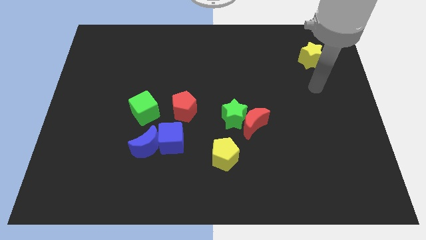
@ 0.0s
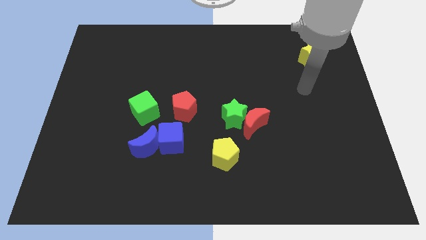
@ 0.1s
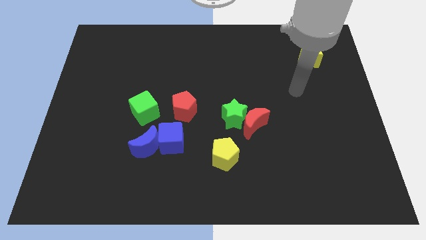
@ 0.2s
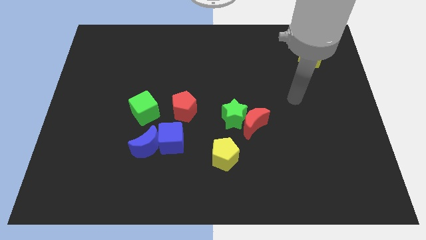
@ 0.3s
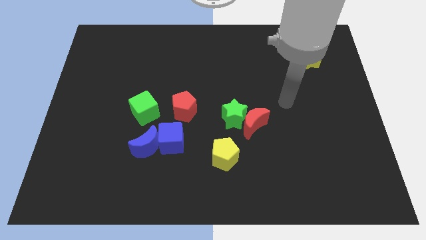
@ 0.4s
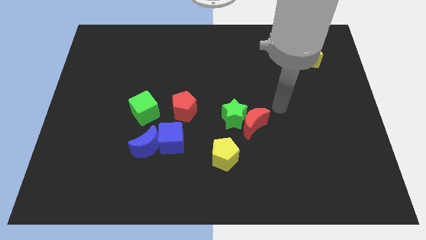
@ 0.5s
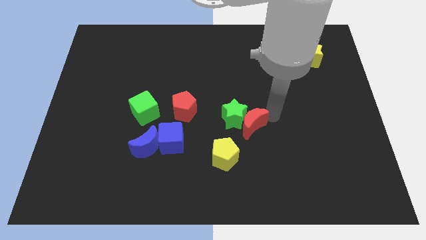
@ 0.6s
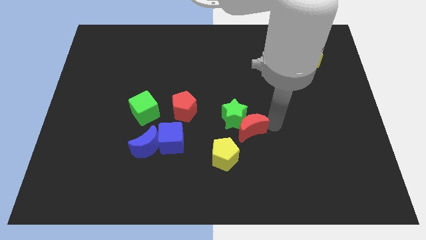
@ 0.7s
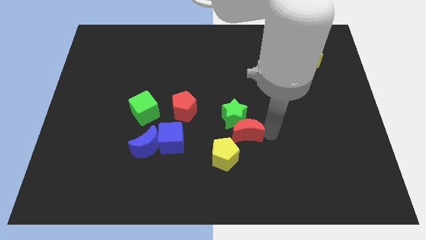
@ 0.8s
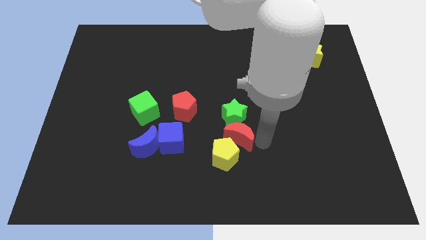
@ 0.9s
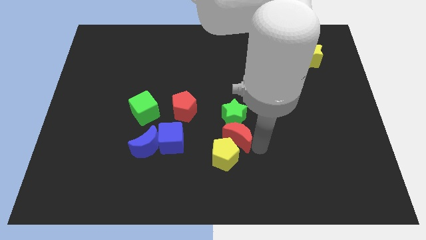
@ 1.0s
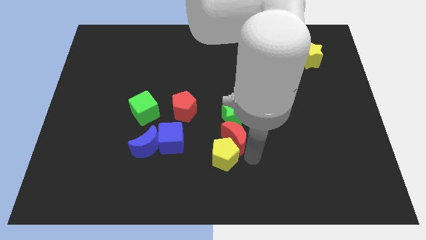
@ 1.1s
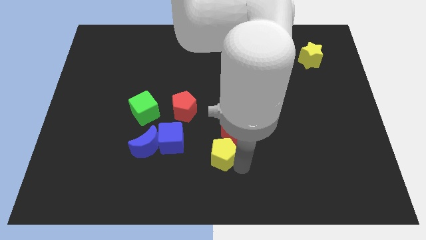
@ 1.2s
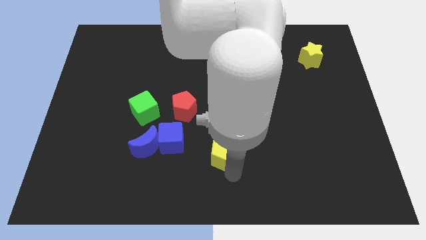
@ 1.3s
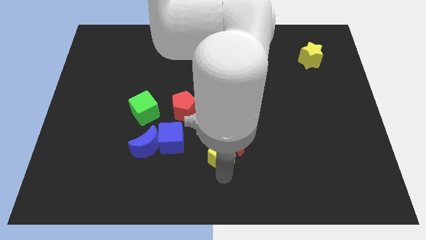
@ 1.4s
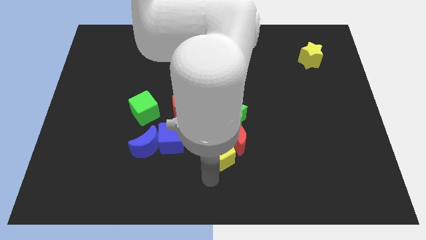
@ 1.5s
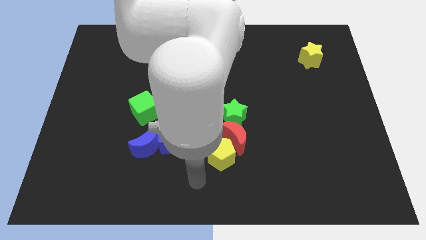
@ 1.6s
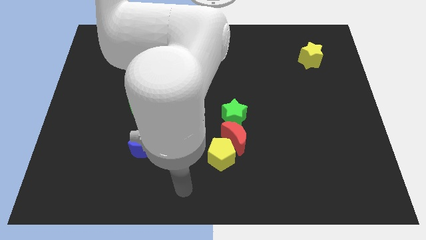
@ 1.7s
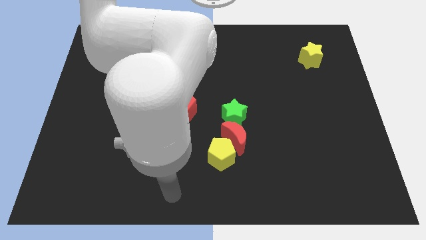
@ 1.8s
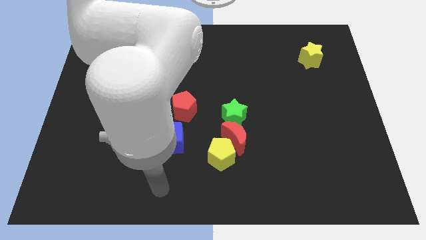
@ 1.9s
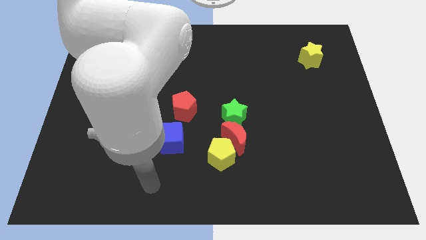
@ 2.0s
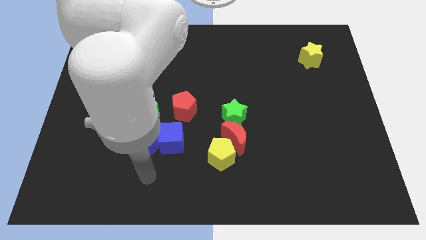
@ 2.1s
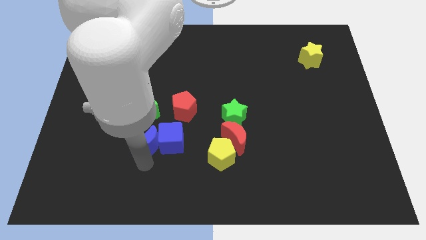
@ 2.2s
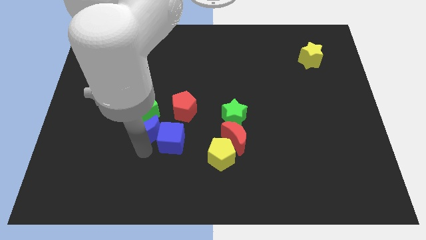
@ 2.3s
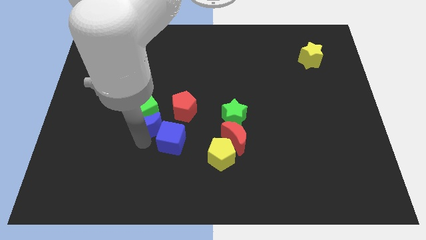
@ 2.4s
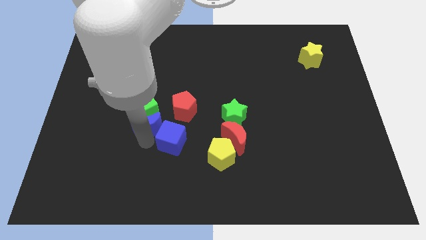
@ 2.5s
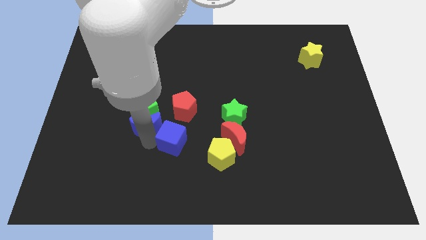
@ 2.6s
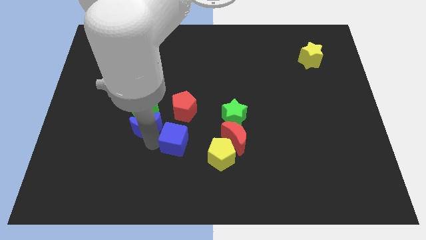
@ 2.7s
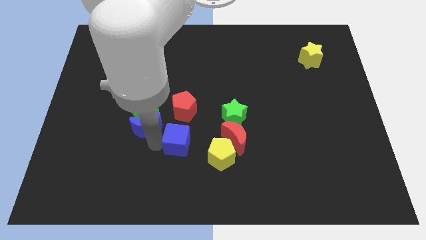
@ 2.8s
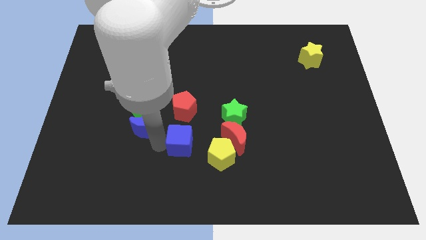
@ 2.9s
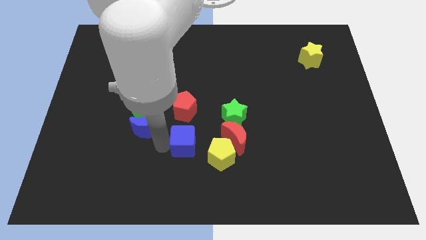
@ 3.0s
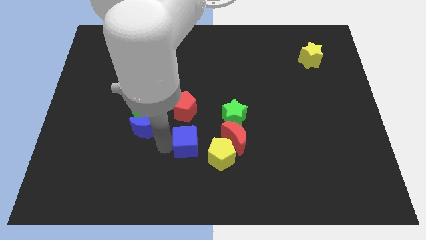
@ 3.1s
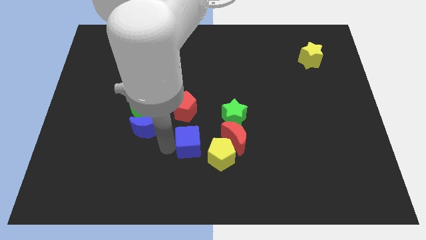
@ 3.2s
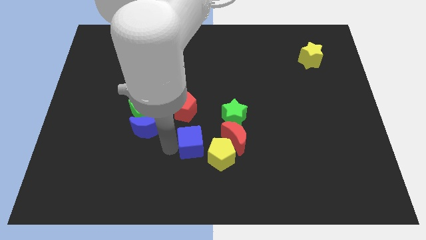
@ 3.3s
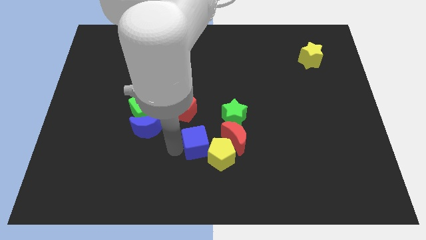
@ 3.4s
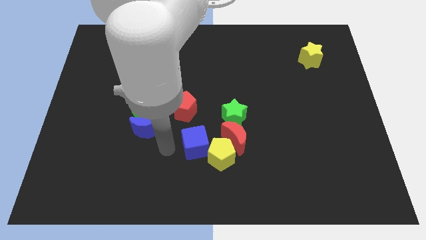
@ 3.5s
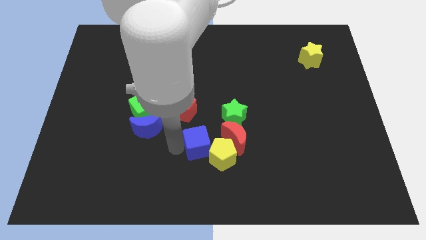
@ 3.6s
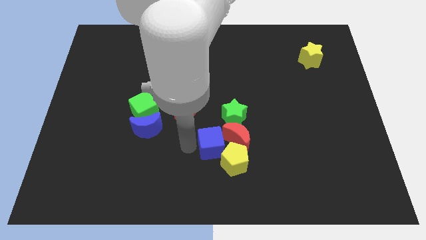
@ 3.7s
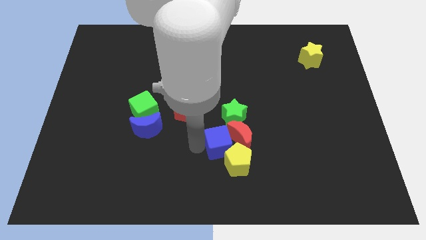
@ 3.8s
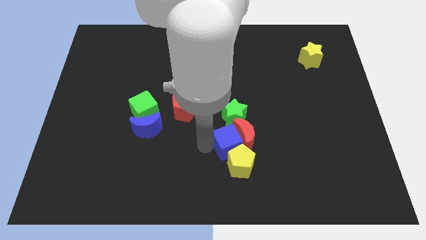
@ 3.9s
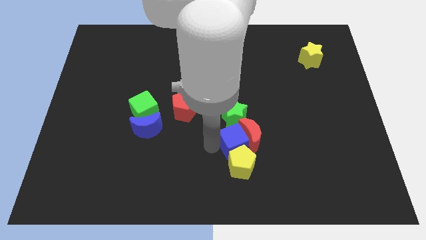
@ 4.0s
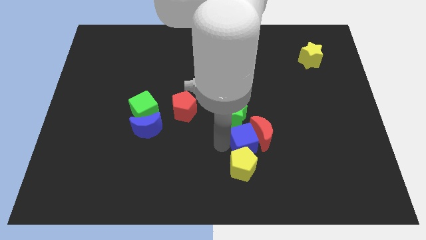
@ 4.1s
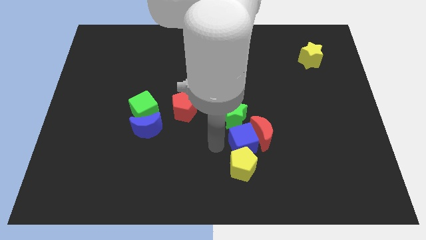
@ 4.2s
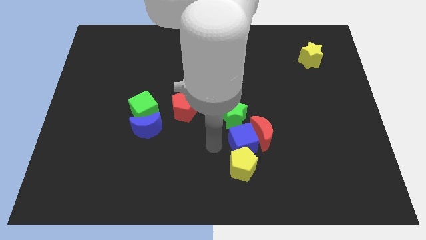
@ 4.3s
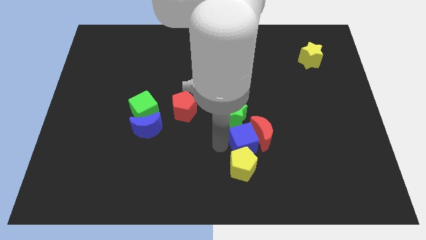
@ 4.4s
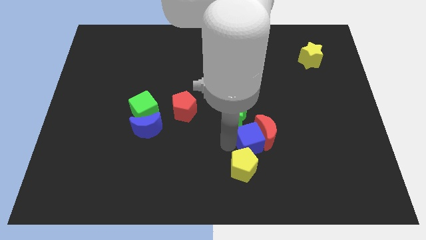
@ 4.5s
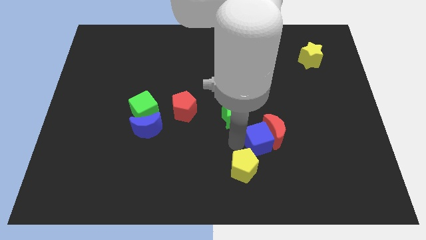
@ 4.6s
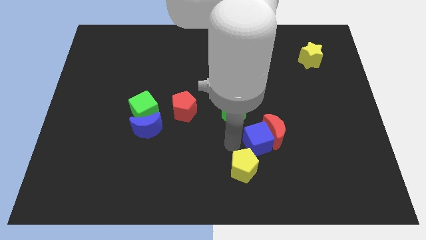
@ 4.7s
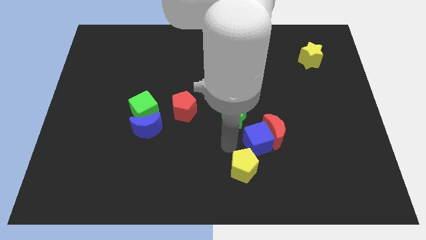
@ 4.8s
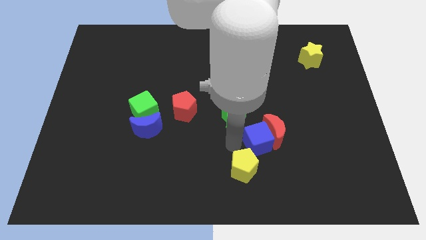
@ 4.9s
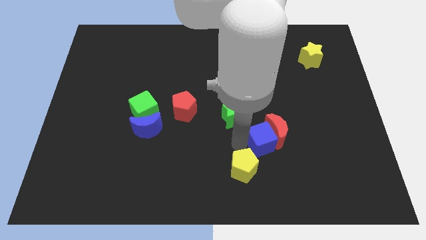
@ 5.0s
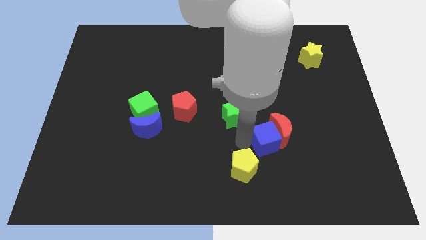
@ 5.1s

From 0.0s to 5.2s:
move the blue cube to the right

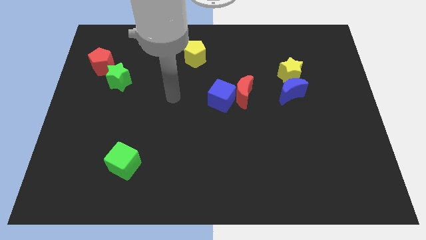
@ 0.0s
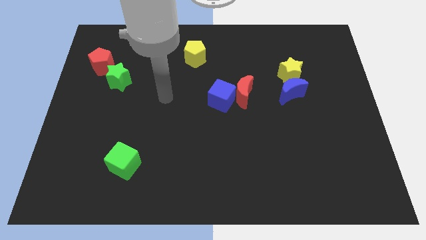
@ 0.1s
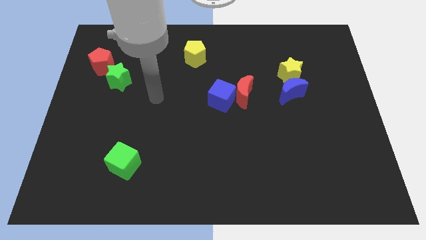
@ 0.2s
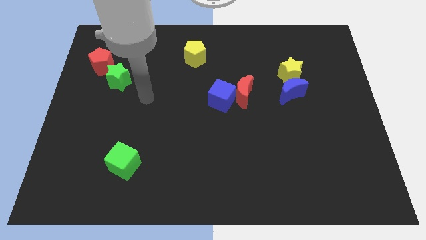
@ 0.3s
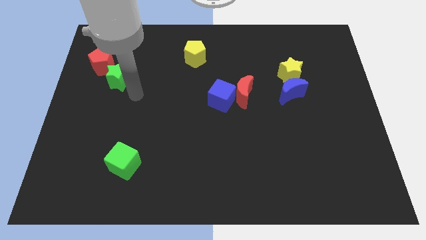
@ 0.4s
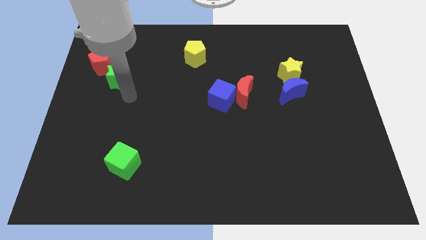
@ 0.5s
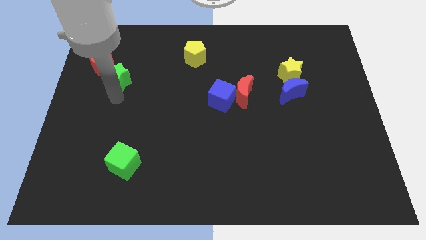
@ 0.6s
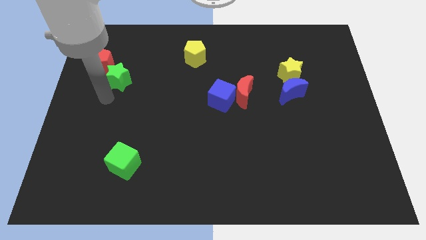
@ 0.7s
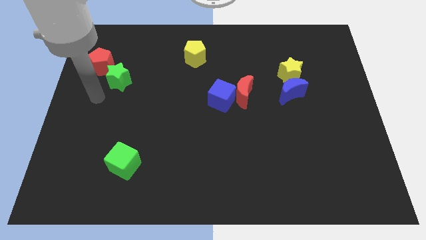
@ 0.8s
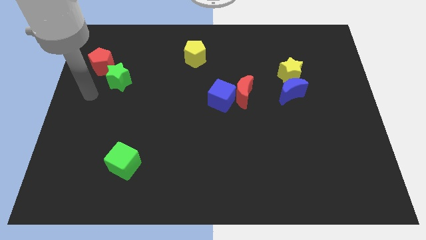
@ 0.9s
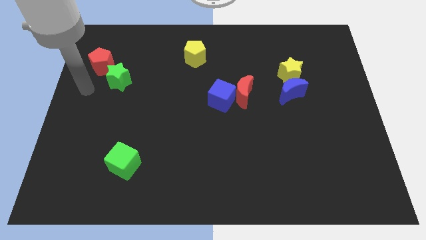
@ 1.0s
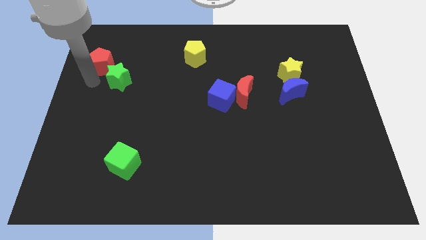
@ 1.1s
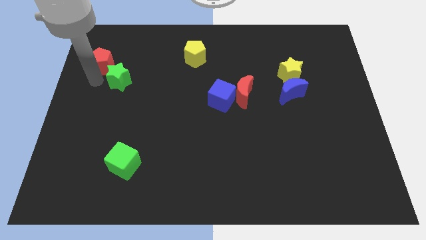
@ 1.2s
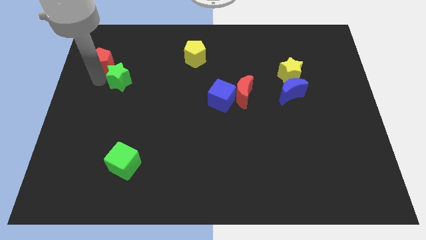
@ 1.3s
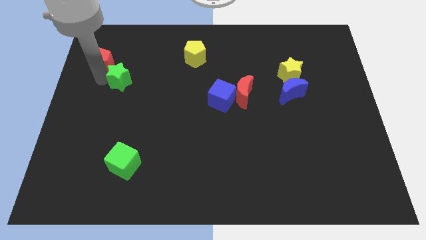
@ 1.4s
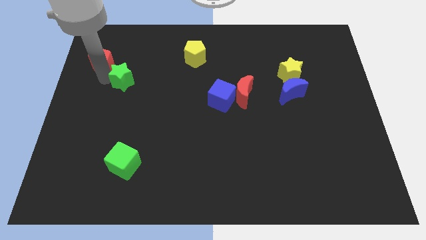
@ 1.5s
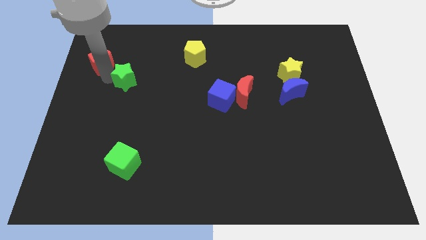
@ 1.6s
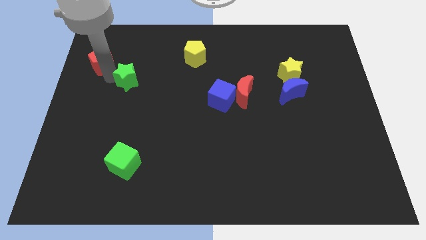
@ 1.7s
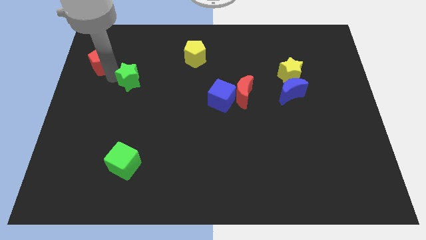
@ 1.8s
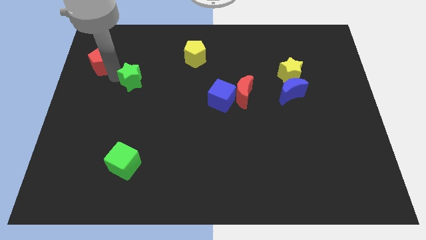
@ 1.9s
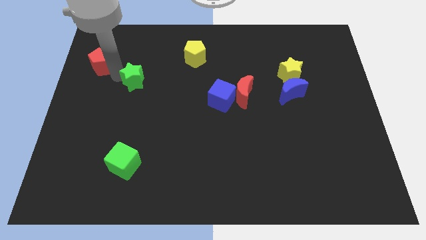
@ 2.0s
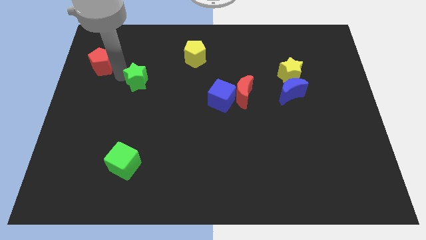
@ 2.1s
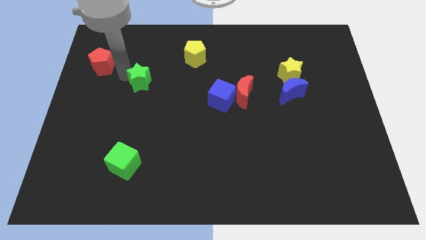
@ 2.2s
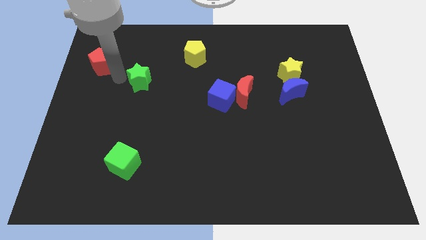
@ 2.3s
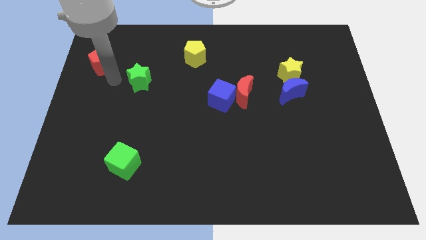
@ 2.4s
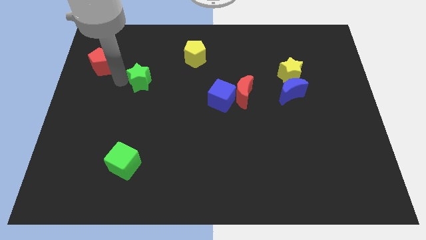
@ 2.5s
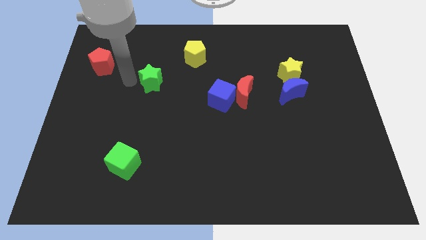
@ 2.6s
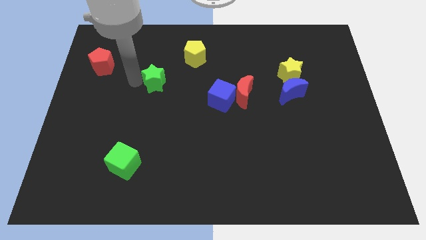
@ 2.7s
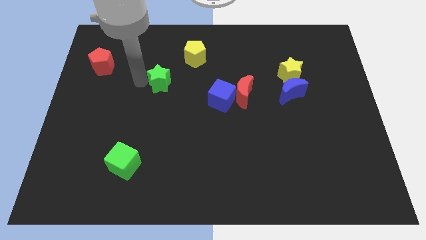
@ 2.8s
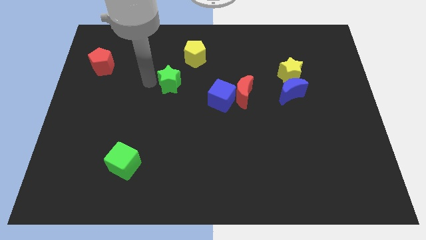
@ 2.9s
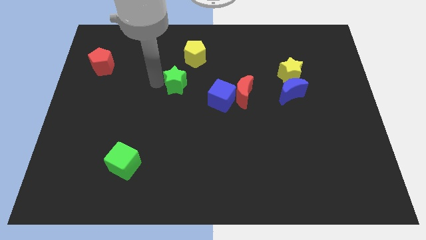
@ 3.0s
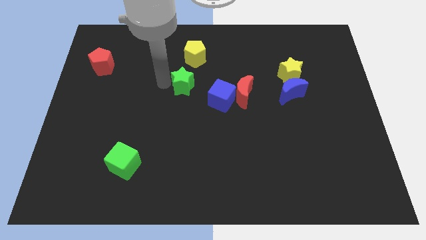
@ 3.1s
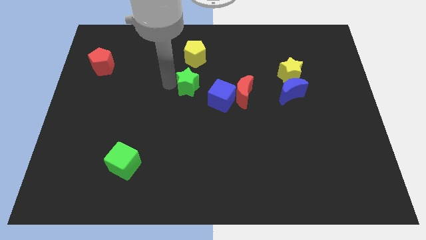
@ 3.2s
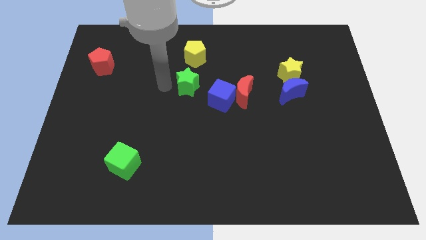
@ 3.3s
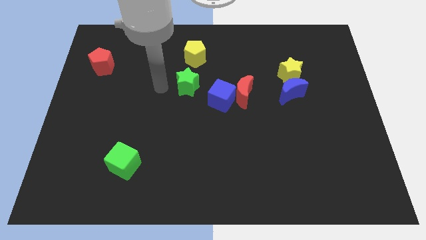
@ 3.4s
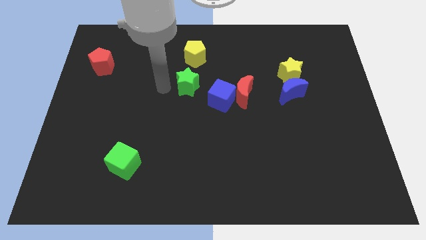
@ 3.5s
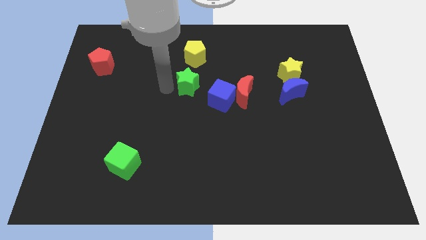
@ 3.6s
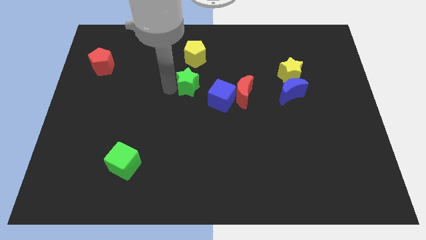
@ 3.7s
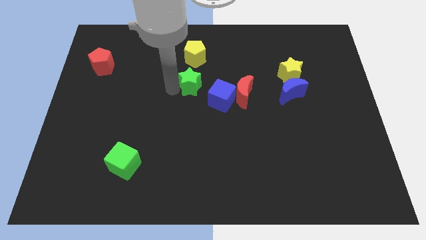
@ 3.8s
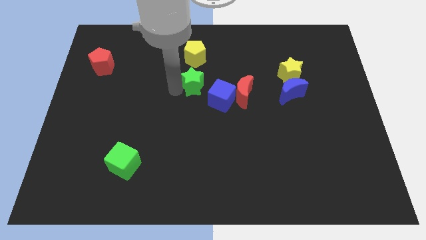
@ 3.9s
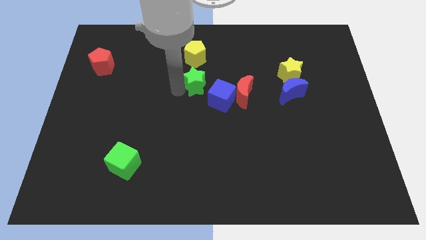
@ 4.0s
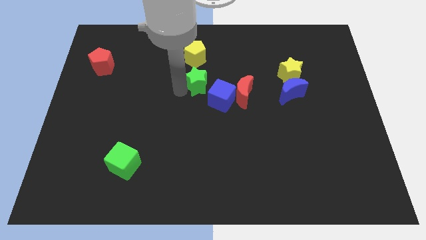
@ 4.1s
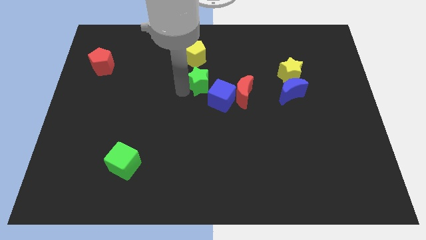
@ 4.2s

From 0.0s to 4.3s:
slide the green star right
